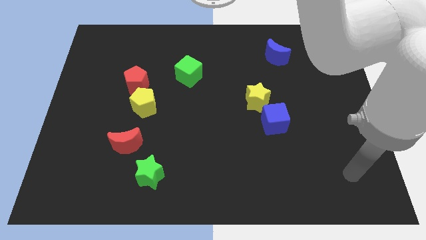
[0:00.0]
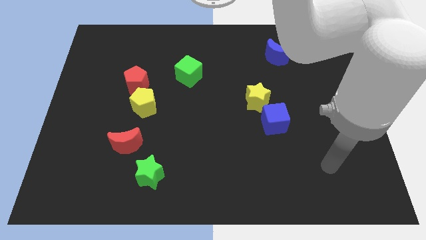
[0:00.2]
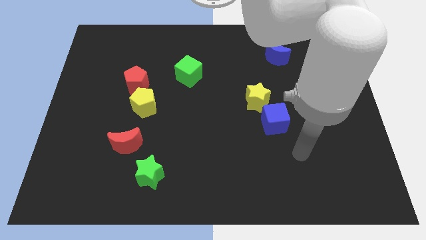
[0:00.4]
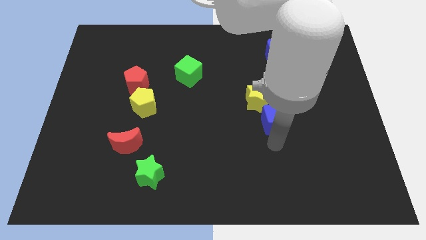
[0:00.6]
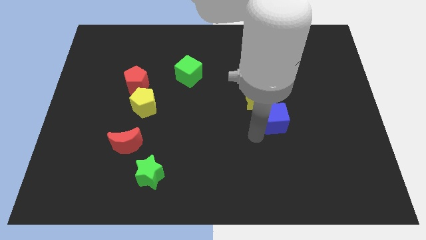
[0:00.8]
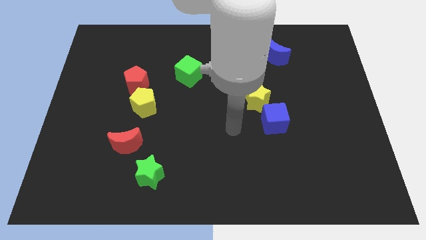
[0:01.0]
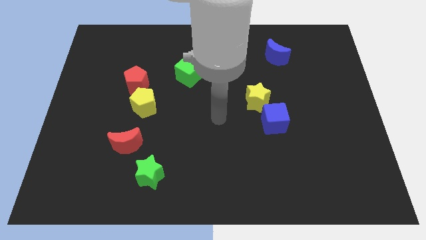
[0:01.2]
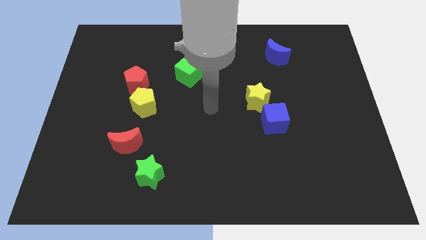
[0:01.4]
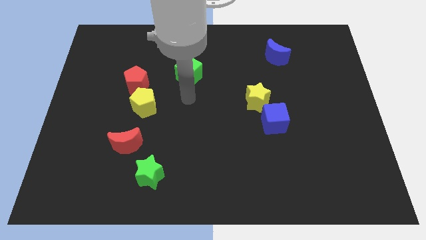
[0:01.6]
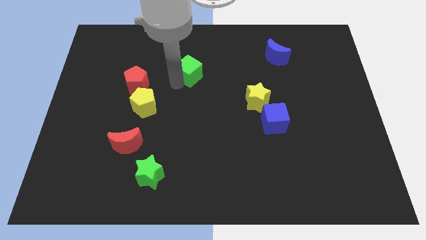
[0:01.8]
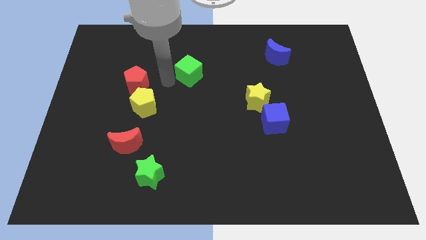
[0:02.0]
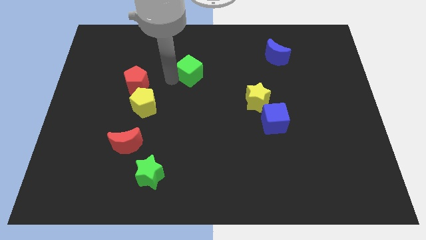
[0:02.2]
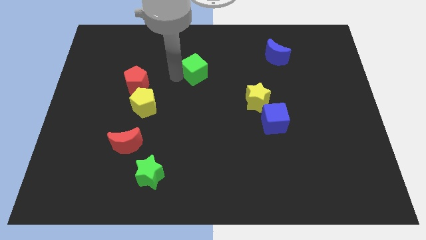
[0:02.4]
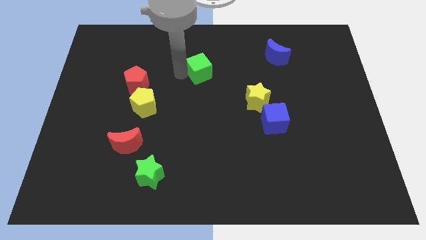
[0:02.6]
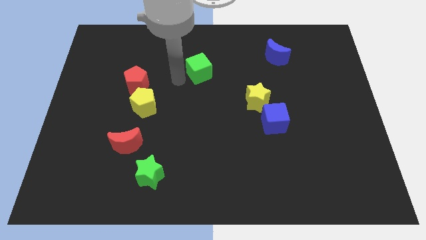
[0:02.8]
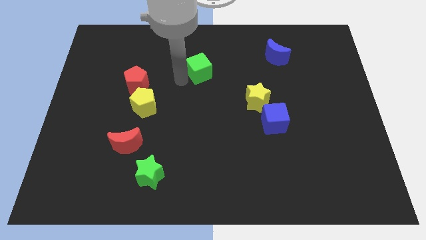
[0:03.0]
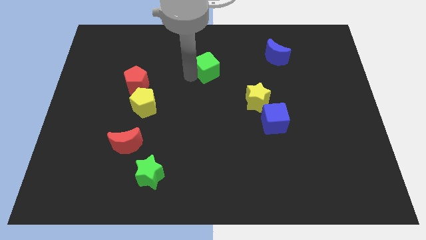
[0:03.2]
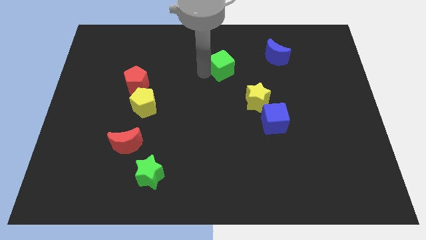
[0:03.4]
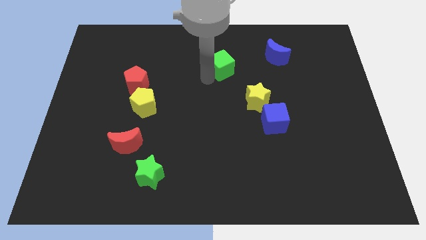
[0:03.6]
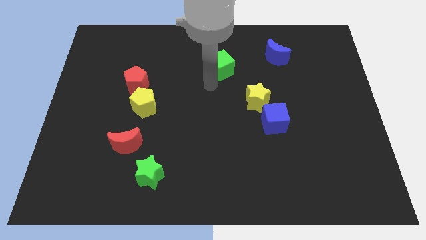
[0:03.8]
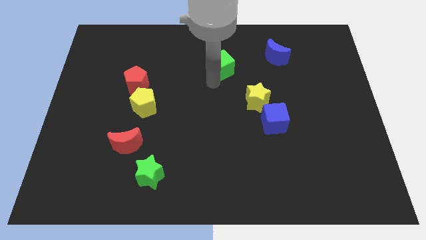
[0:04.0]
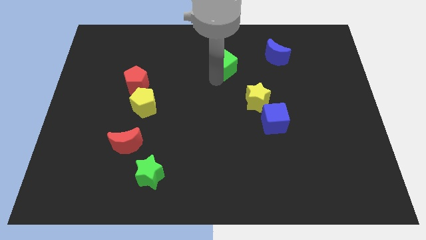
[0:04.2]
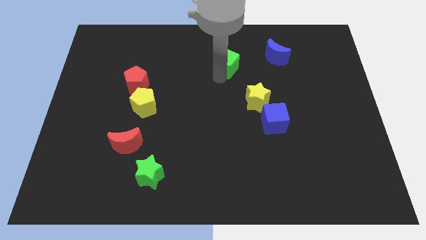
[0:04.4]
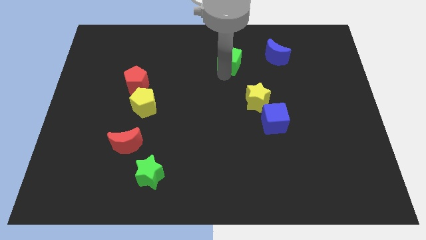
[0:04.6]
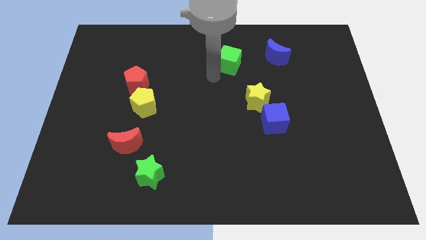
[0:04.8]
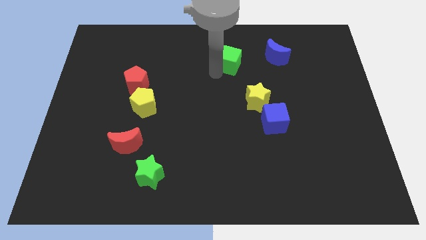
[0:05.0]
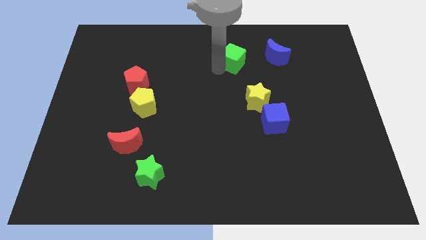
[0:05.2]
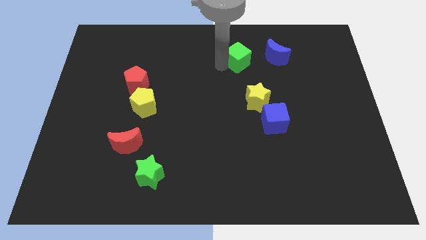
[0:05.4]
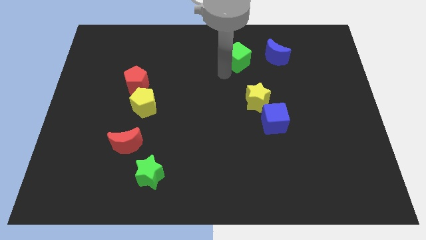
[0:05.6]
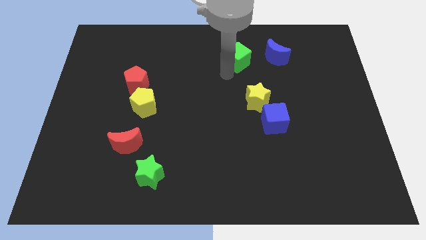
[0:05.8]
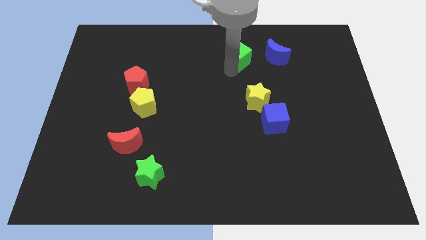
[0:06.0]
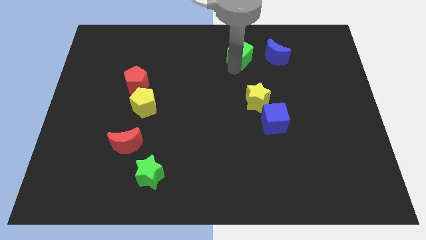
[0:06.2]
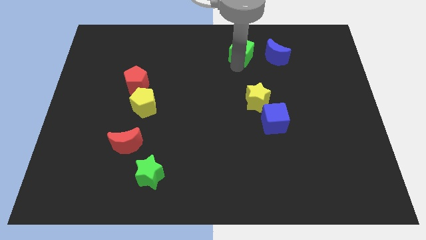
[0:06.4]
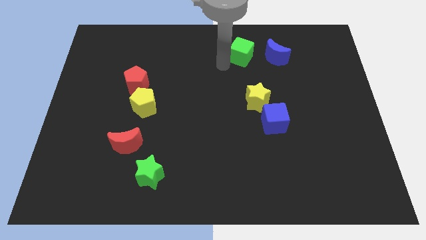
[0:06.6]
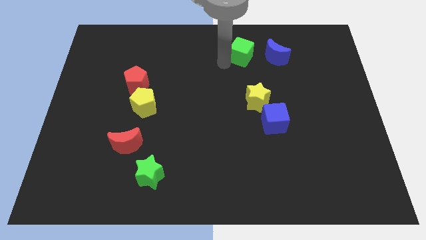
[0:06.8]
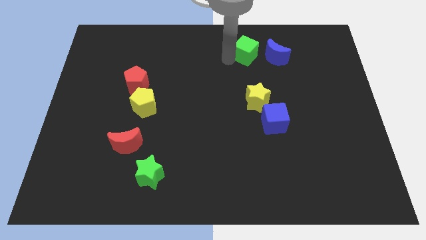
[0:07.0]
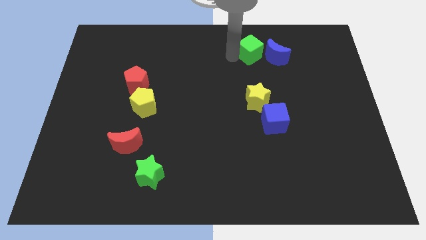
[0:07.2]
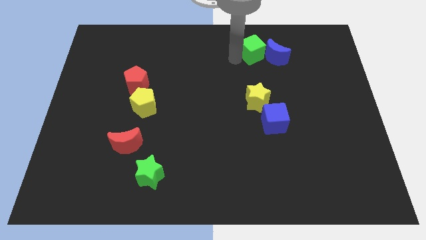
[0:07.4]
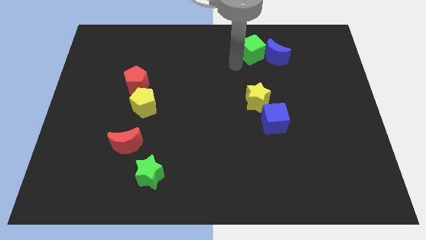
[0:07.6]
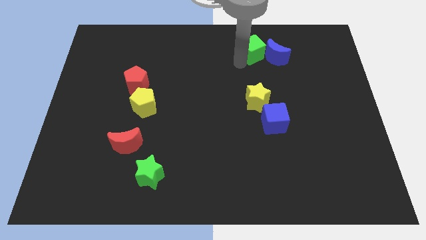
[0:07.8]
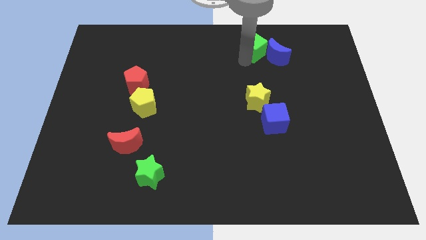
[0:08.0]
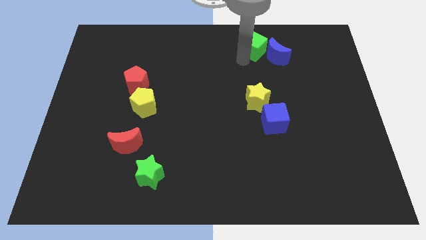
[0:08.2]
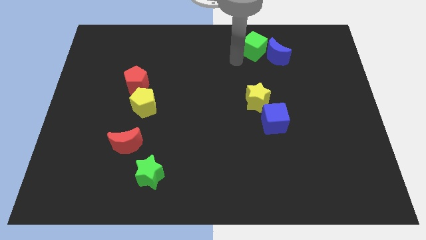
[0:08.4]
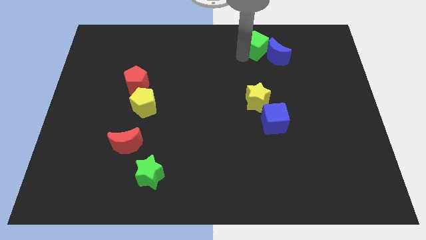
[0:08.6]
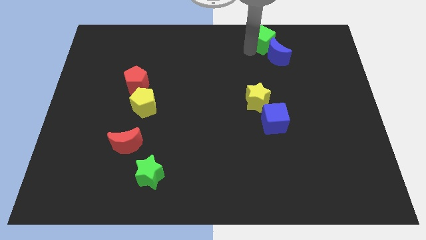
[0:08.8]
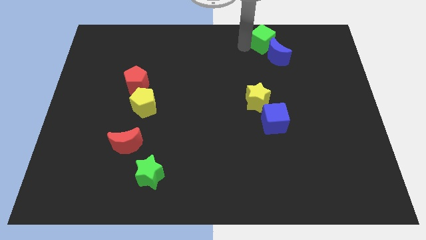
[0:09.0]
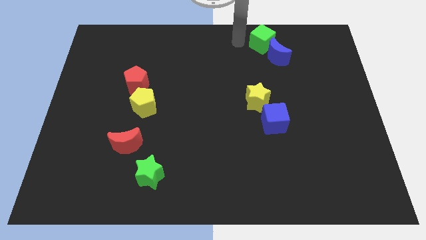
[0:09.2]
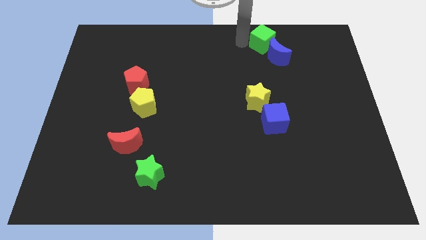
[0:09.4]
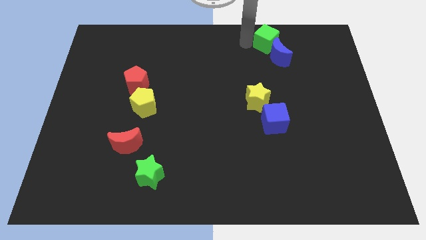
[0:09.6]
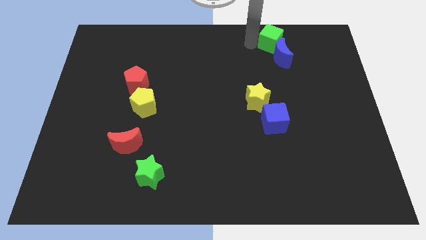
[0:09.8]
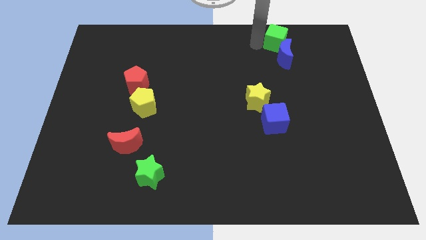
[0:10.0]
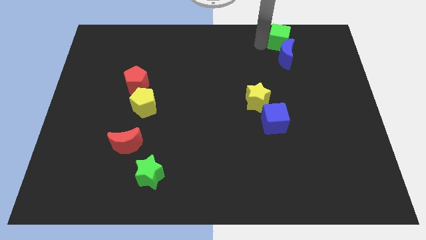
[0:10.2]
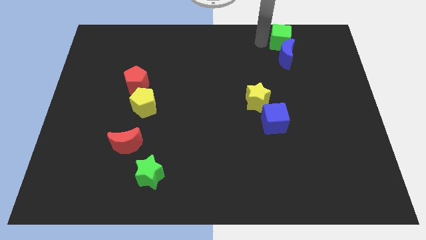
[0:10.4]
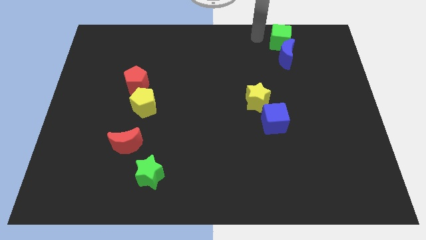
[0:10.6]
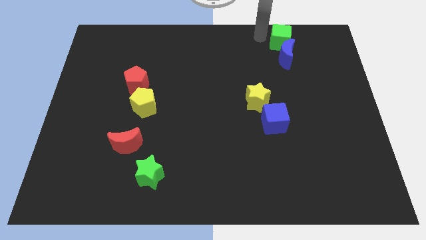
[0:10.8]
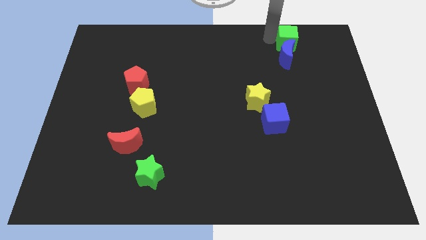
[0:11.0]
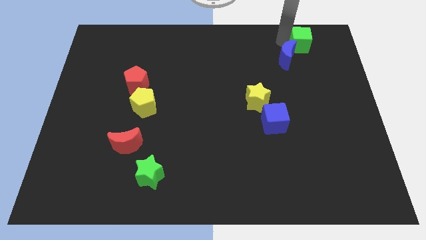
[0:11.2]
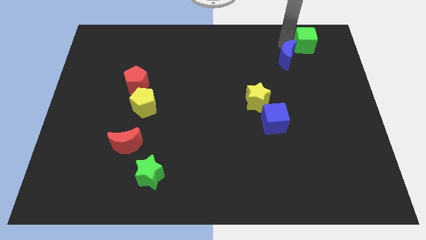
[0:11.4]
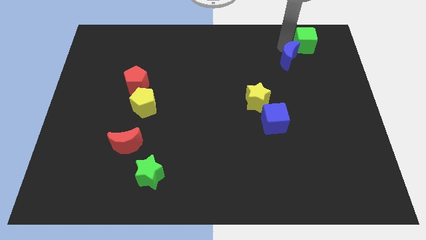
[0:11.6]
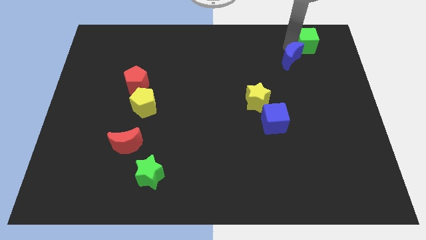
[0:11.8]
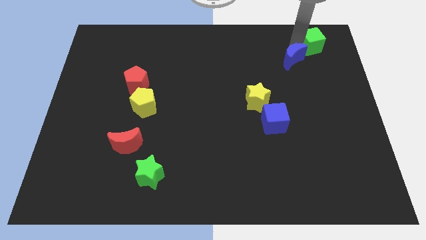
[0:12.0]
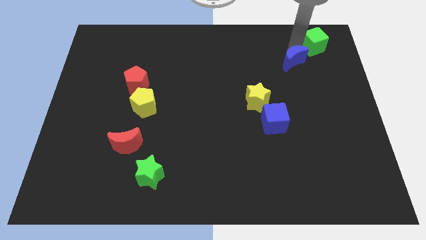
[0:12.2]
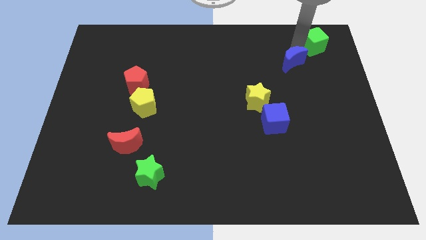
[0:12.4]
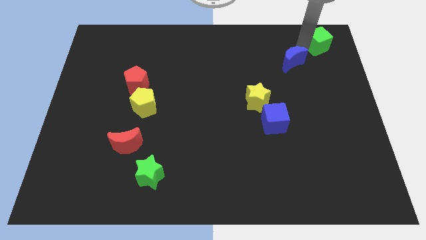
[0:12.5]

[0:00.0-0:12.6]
put the green cube to the top right of the board

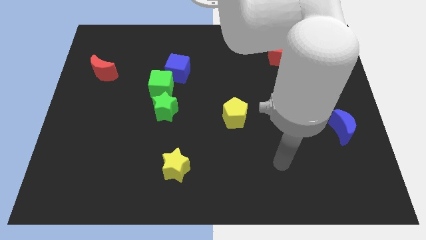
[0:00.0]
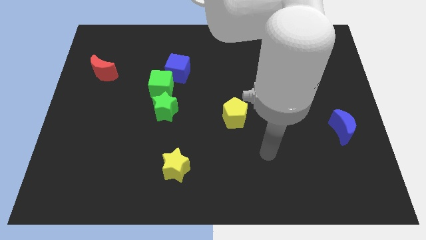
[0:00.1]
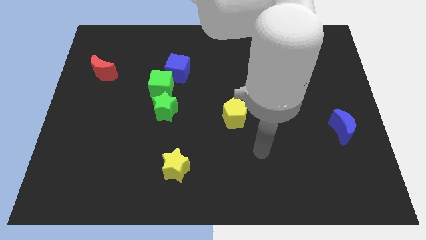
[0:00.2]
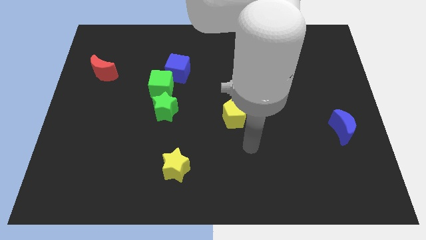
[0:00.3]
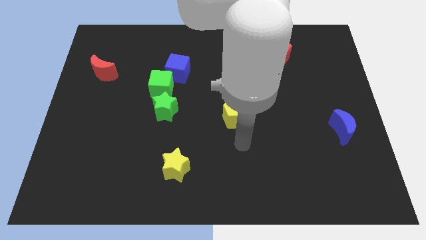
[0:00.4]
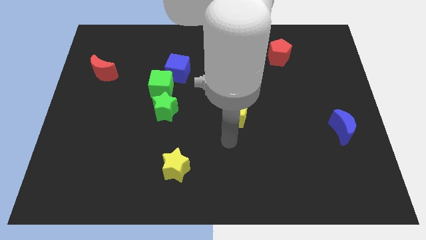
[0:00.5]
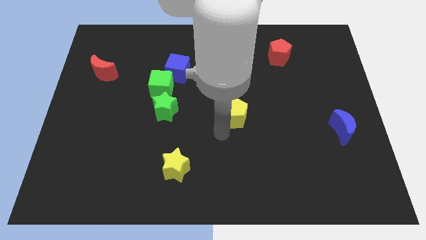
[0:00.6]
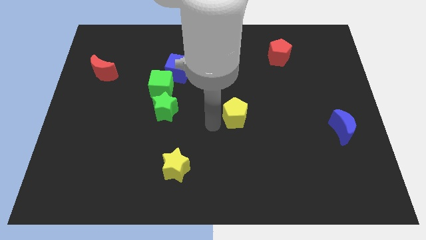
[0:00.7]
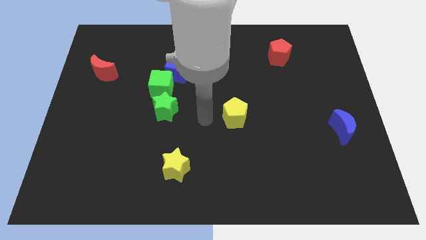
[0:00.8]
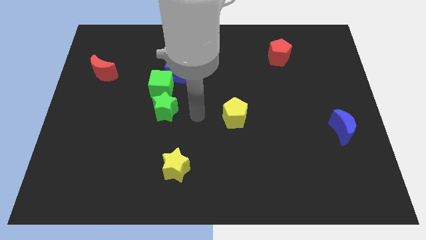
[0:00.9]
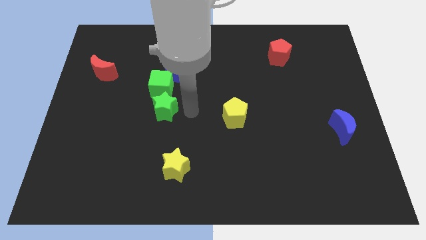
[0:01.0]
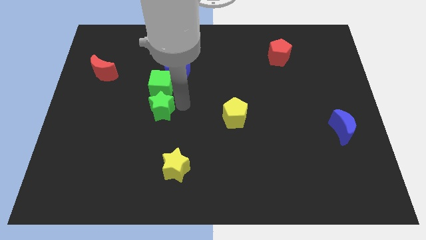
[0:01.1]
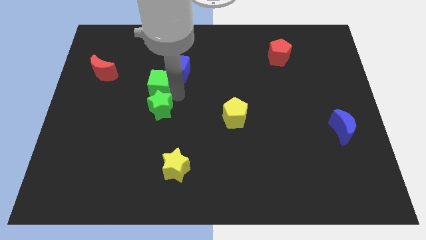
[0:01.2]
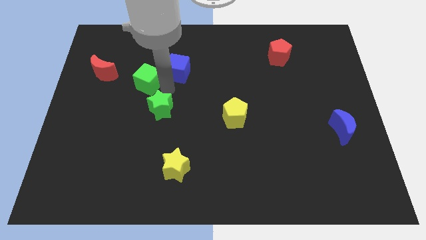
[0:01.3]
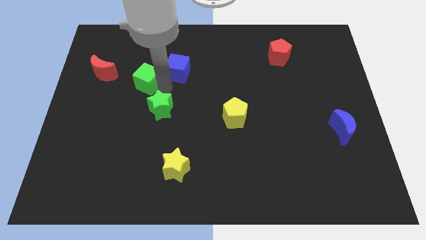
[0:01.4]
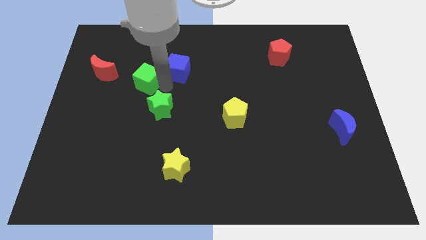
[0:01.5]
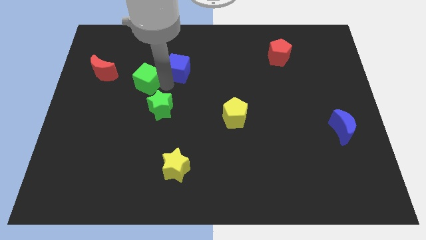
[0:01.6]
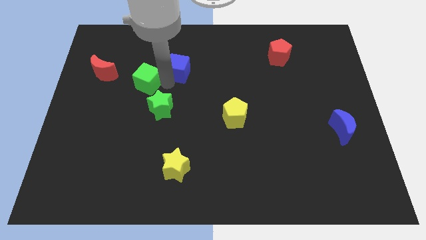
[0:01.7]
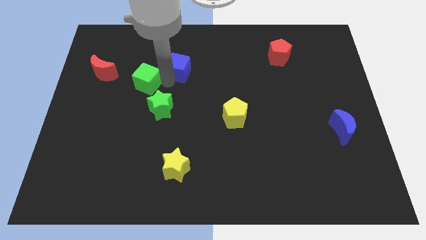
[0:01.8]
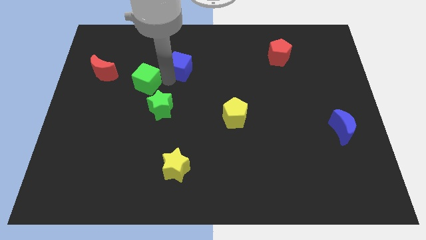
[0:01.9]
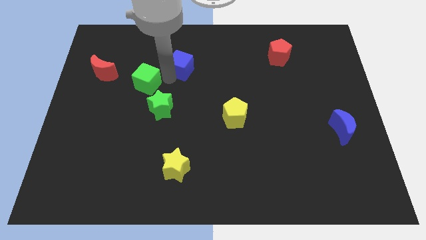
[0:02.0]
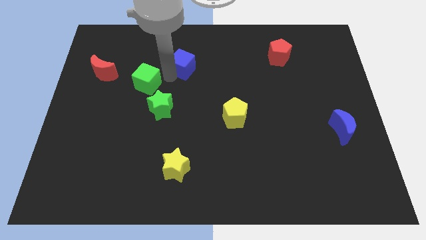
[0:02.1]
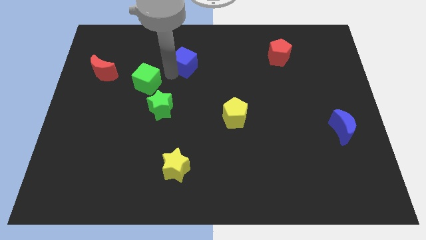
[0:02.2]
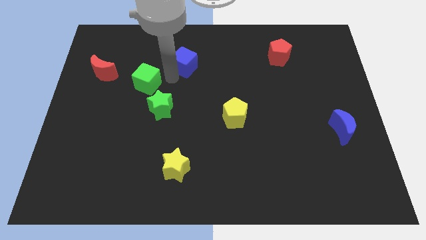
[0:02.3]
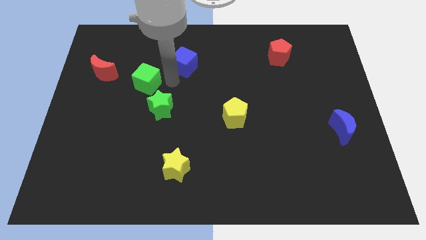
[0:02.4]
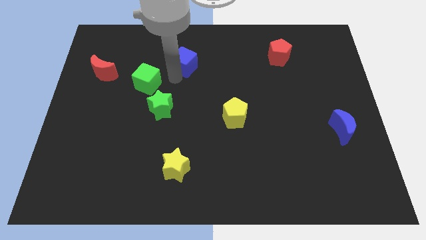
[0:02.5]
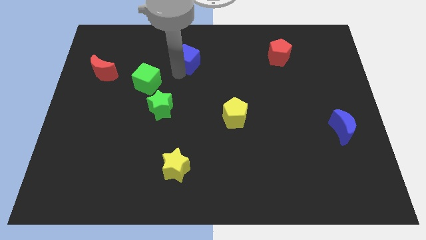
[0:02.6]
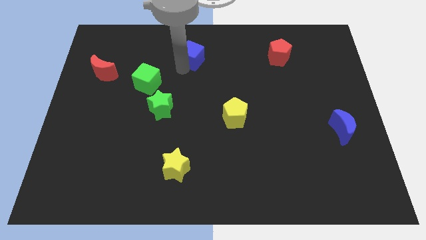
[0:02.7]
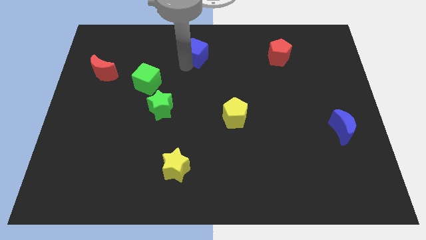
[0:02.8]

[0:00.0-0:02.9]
move the blue cube to the towards your base
